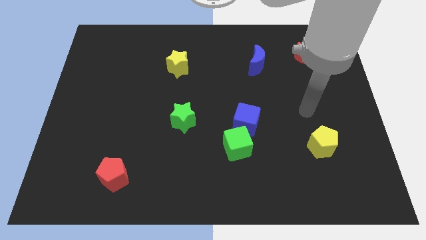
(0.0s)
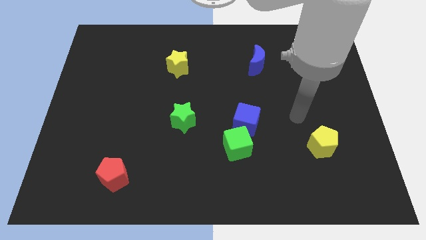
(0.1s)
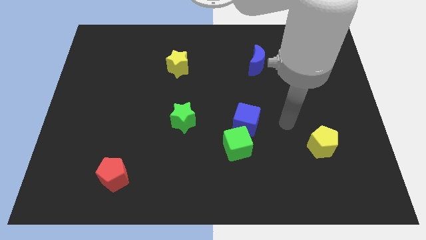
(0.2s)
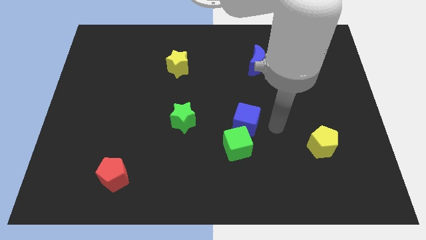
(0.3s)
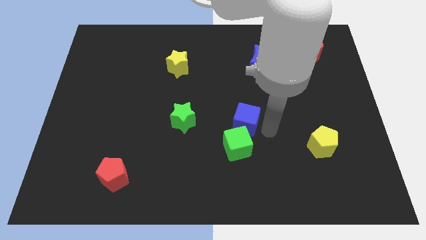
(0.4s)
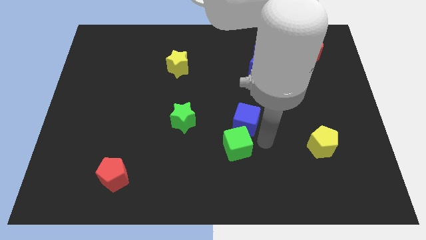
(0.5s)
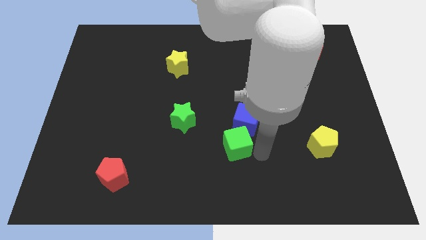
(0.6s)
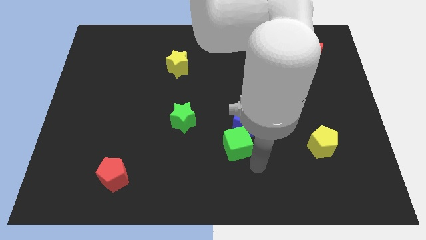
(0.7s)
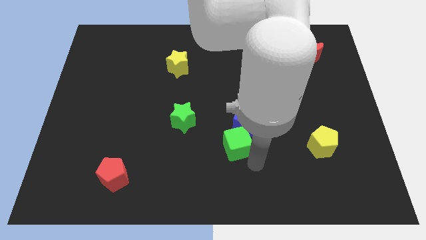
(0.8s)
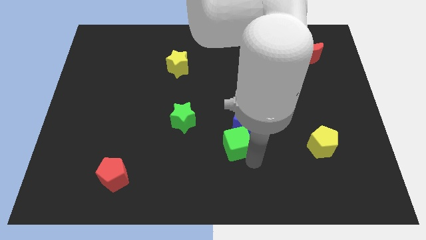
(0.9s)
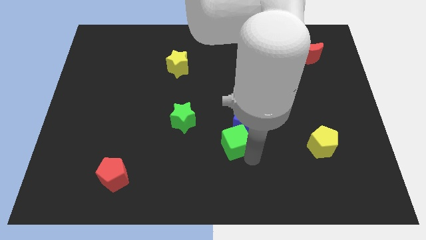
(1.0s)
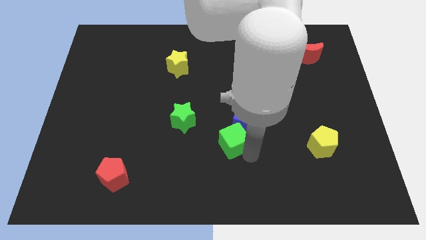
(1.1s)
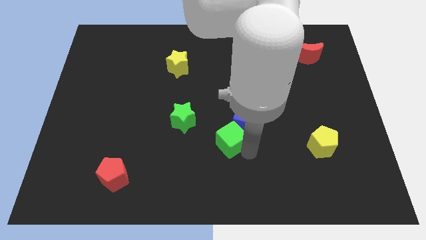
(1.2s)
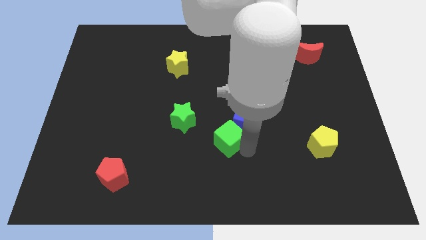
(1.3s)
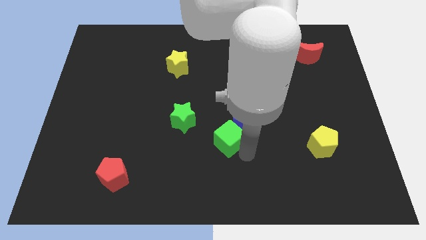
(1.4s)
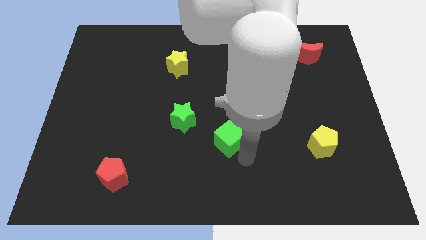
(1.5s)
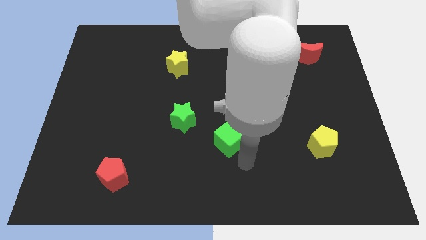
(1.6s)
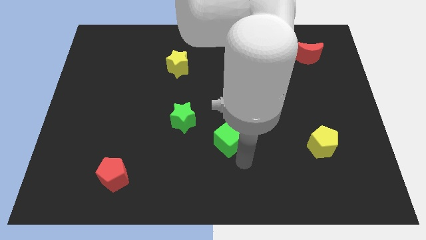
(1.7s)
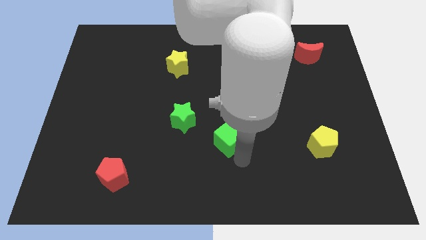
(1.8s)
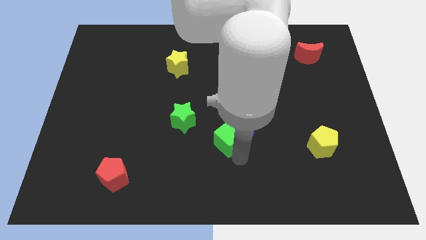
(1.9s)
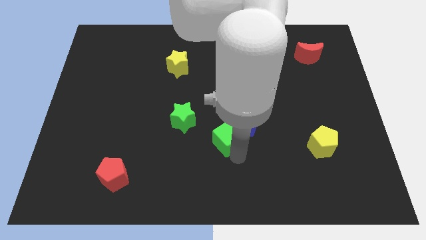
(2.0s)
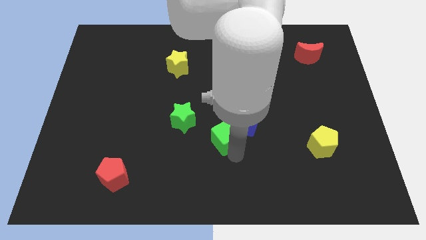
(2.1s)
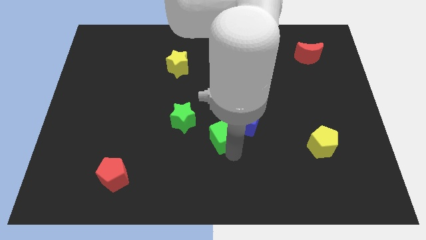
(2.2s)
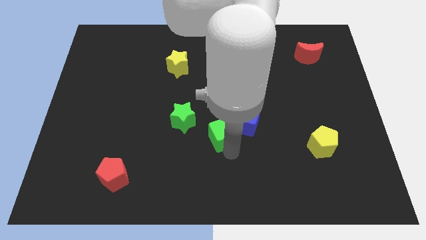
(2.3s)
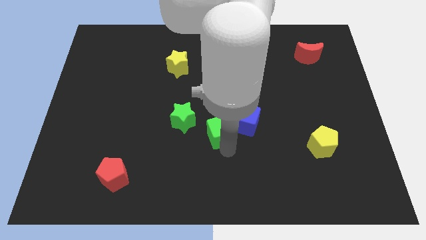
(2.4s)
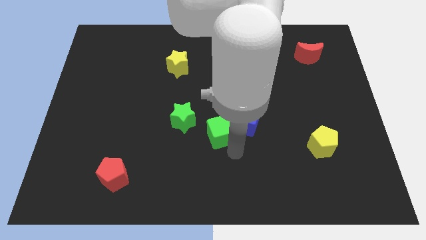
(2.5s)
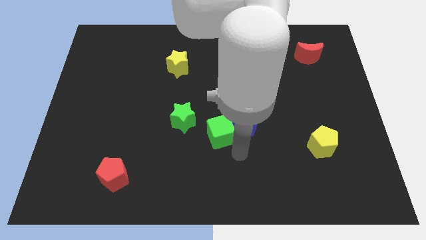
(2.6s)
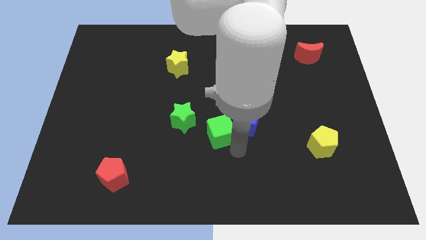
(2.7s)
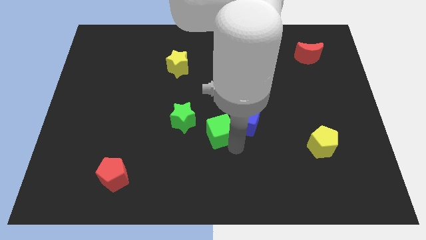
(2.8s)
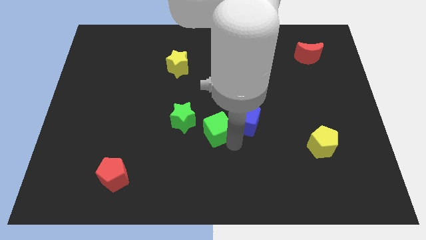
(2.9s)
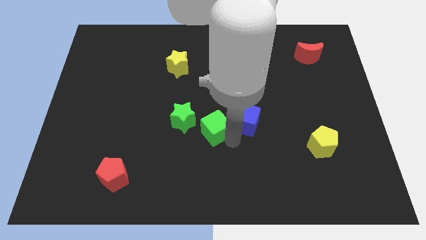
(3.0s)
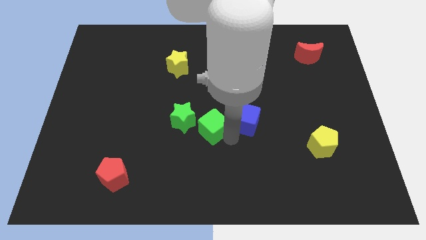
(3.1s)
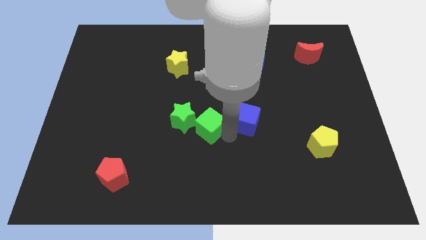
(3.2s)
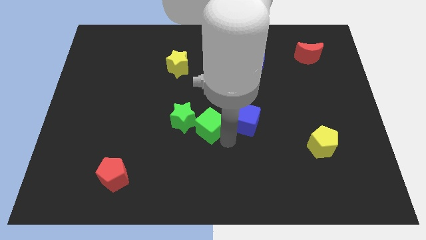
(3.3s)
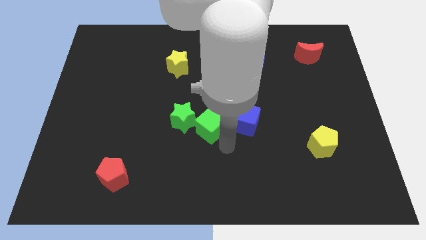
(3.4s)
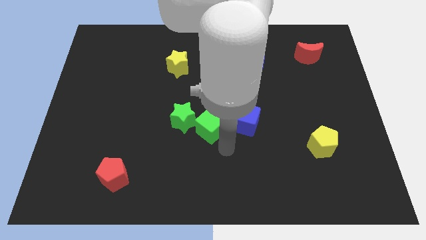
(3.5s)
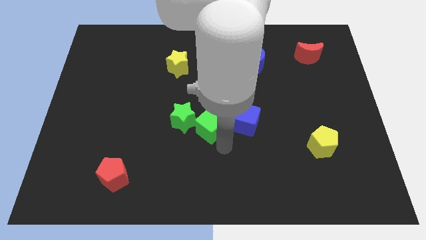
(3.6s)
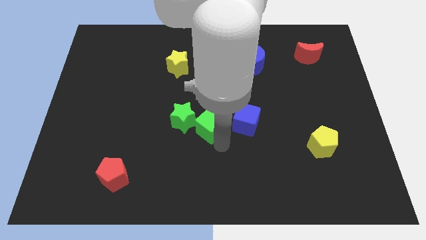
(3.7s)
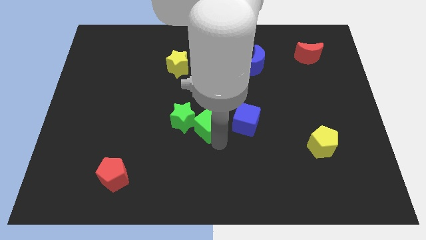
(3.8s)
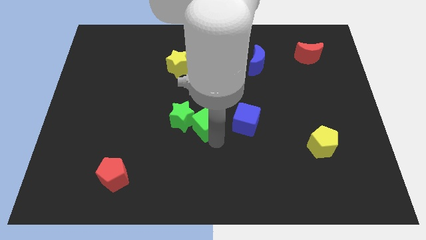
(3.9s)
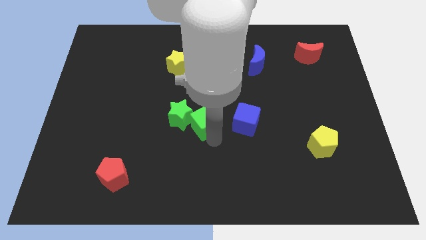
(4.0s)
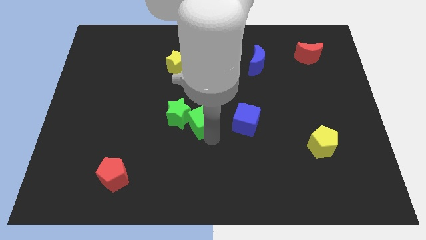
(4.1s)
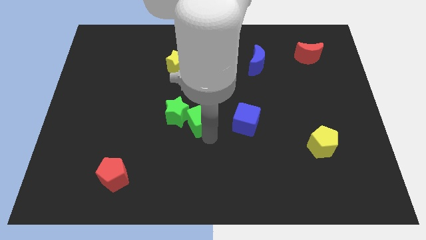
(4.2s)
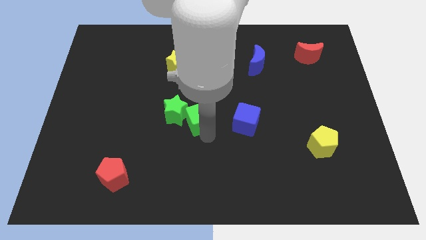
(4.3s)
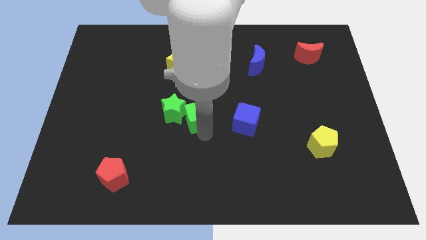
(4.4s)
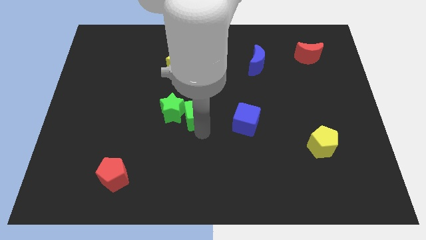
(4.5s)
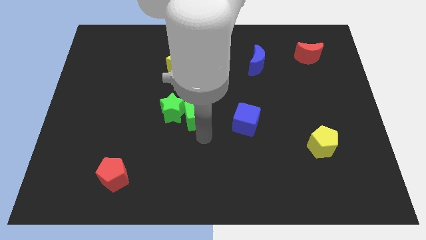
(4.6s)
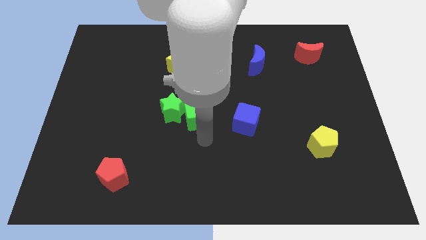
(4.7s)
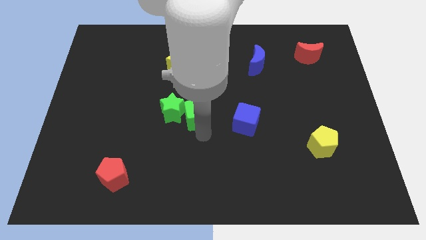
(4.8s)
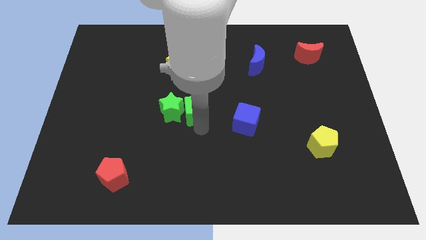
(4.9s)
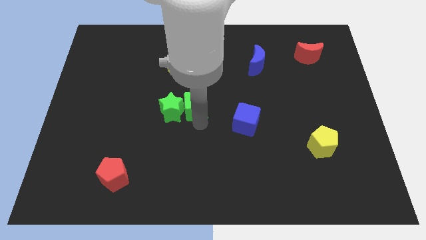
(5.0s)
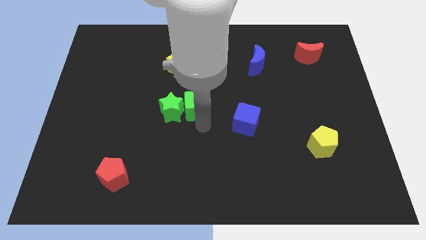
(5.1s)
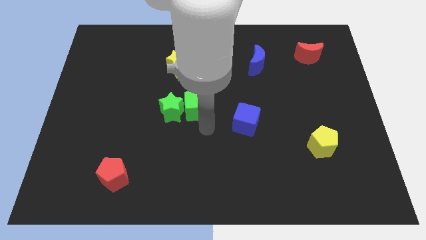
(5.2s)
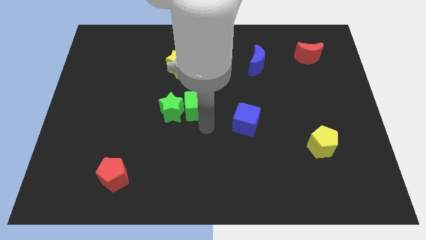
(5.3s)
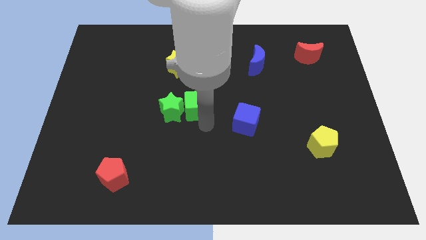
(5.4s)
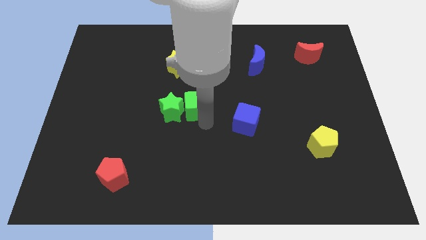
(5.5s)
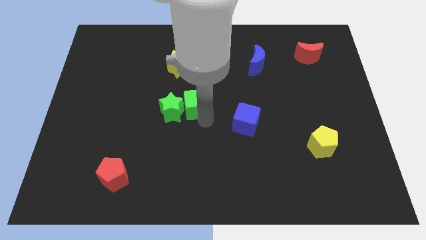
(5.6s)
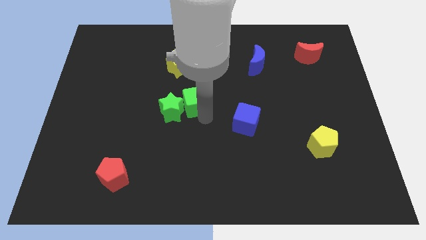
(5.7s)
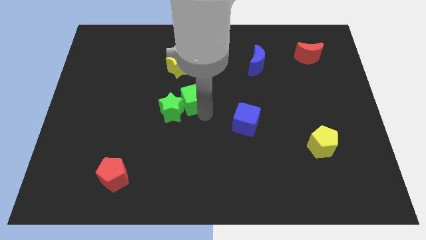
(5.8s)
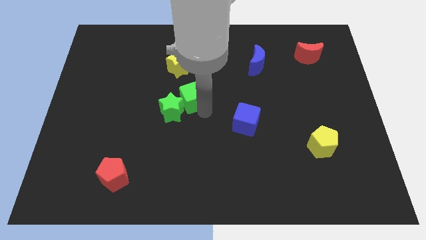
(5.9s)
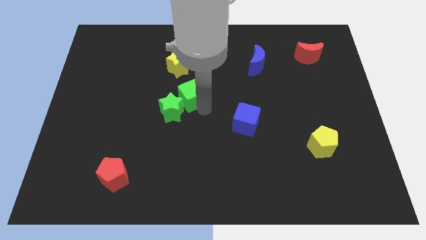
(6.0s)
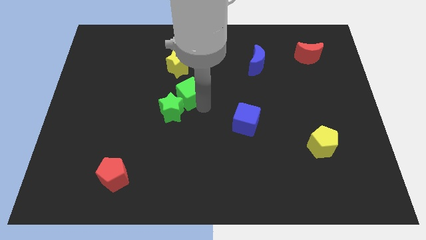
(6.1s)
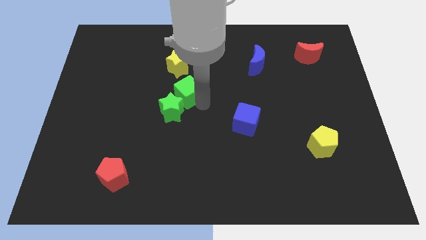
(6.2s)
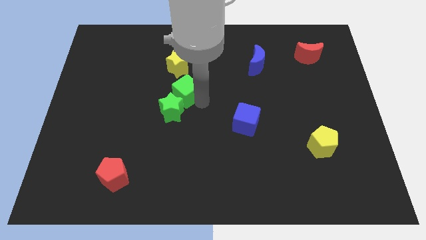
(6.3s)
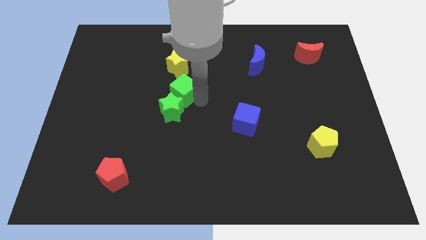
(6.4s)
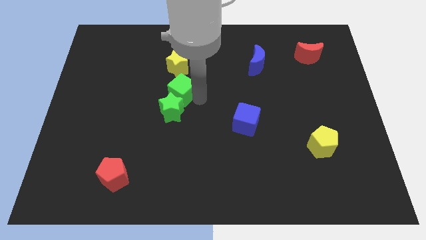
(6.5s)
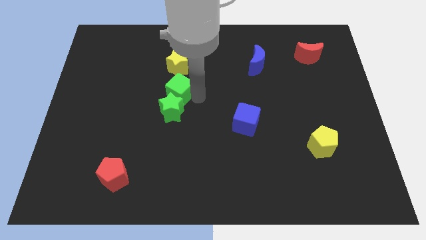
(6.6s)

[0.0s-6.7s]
push the green cube diagonally upwards and to the left

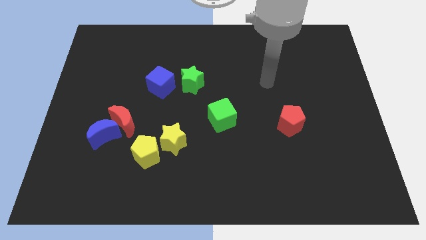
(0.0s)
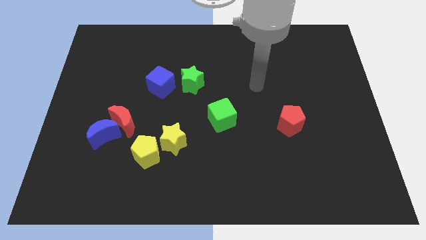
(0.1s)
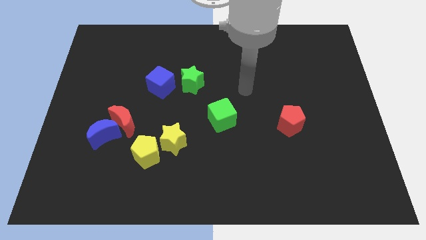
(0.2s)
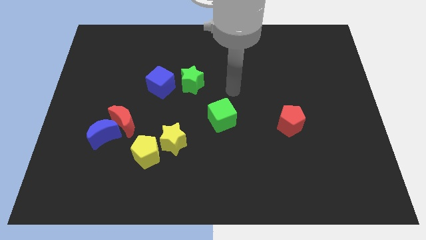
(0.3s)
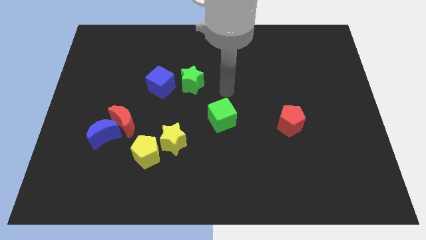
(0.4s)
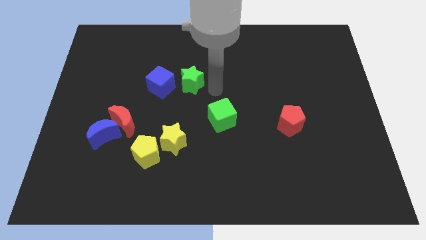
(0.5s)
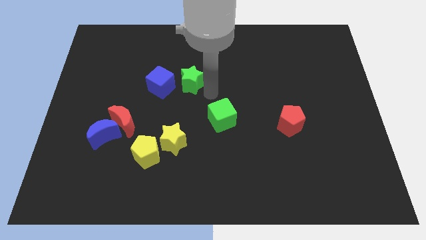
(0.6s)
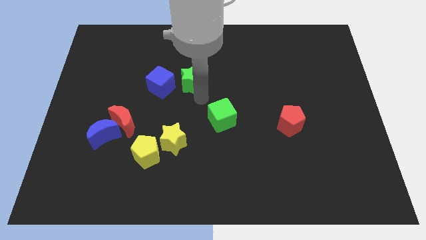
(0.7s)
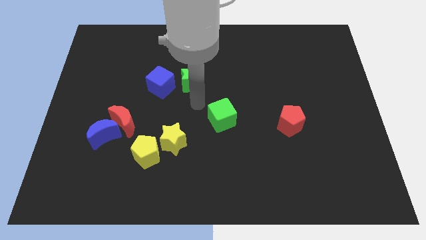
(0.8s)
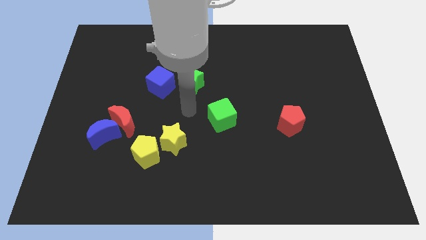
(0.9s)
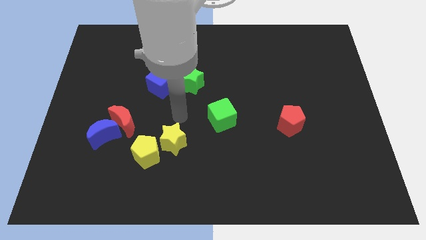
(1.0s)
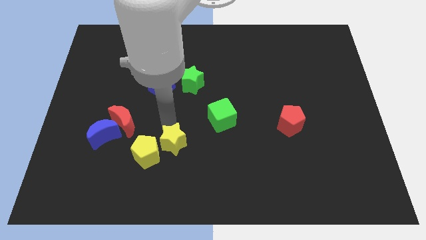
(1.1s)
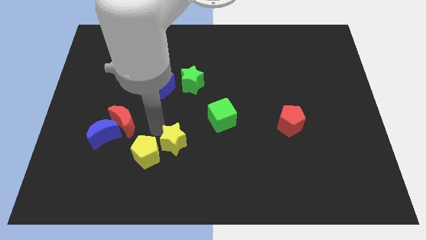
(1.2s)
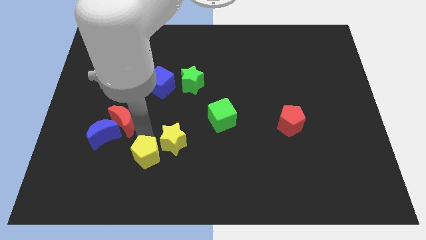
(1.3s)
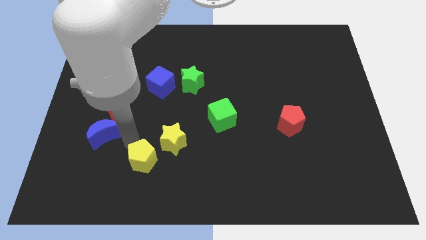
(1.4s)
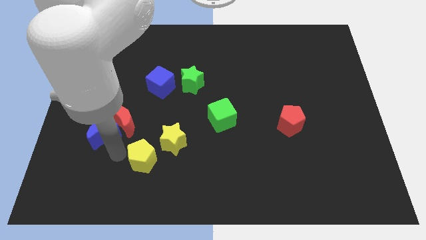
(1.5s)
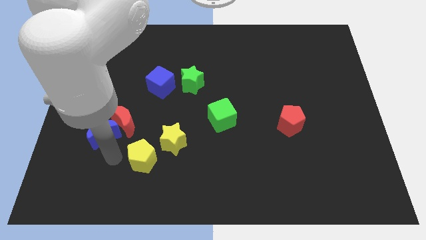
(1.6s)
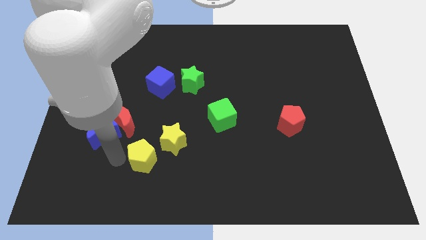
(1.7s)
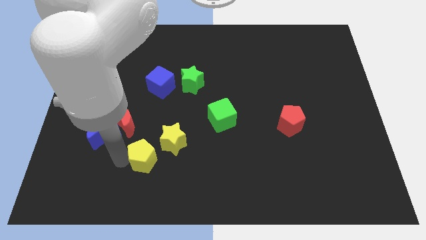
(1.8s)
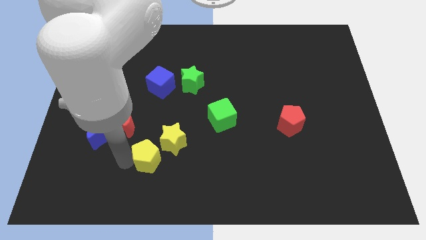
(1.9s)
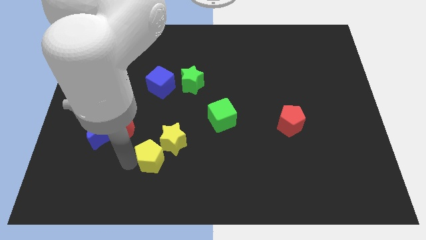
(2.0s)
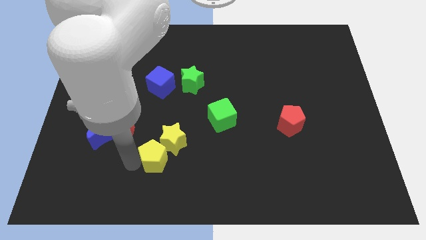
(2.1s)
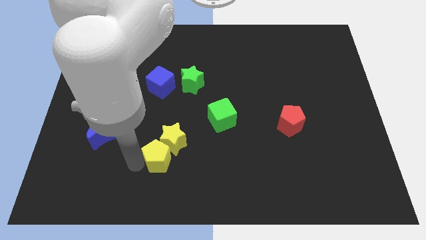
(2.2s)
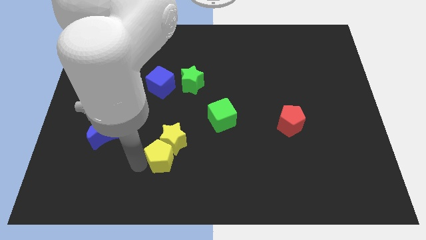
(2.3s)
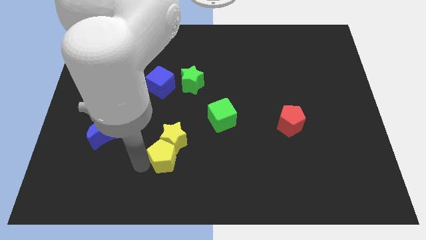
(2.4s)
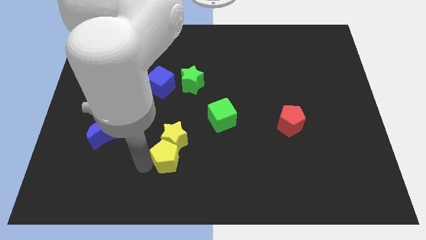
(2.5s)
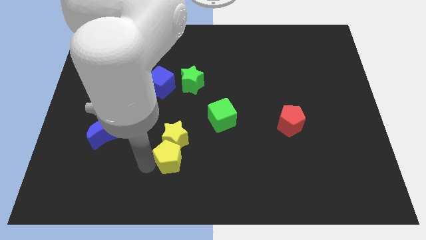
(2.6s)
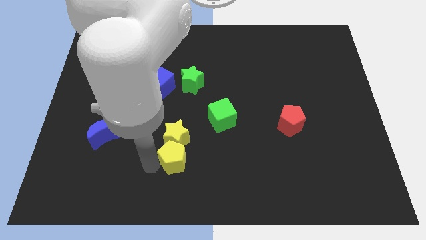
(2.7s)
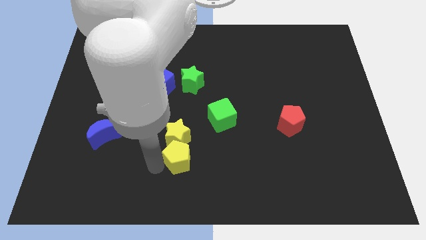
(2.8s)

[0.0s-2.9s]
slightly slide the yellow pentagon right
